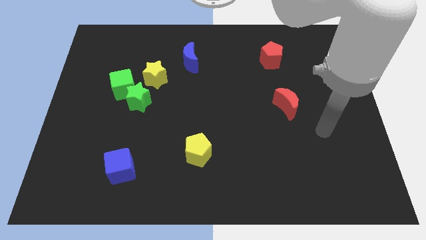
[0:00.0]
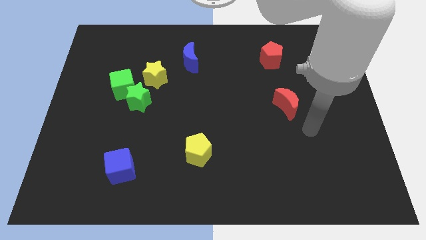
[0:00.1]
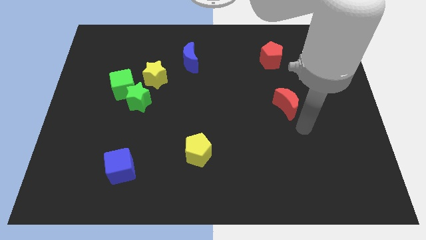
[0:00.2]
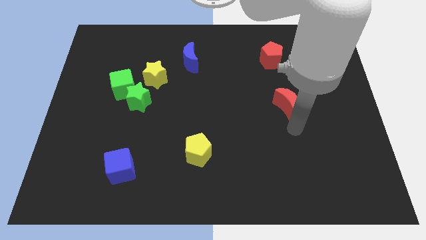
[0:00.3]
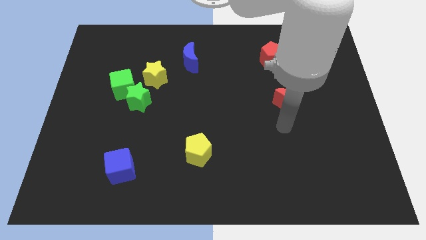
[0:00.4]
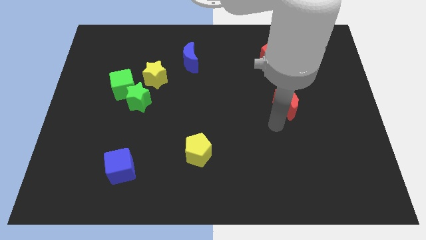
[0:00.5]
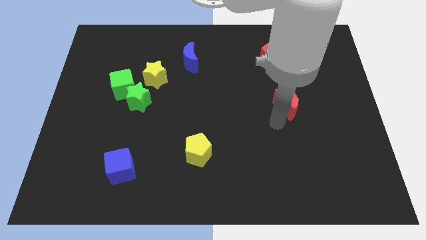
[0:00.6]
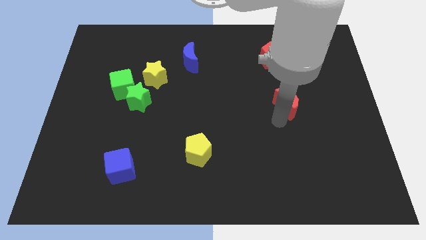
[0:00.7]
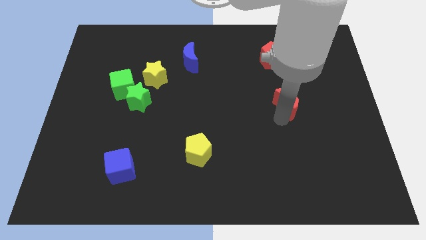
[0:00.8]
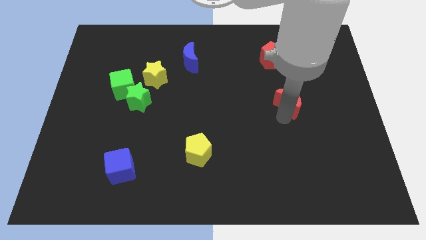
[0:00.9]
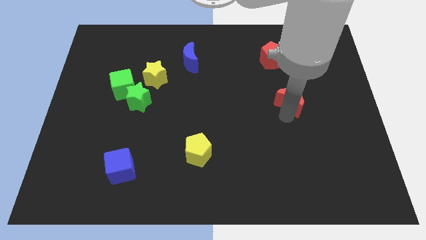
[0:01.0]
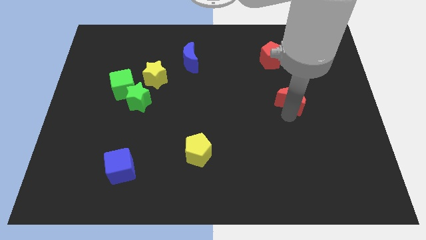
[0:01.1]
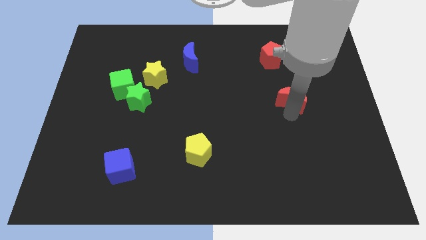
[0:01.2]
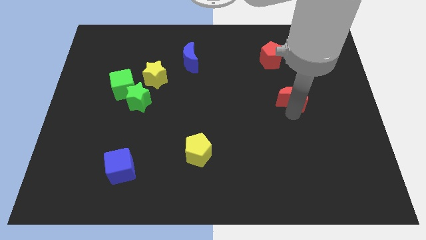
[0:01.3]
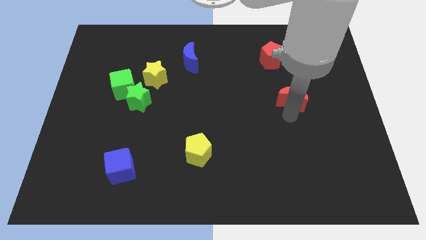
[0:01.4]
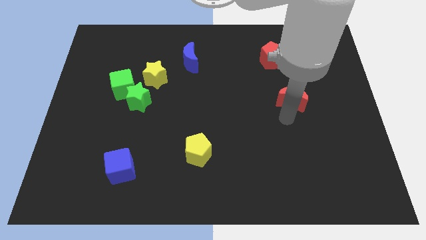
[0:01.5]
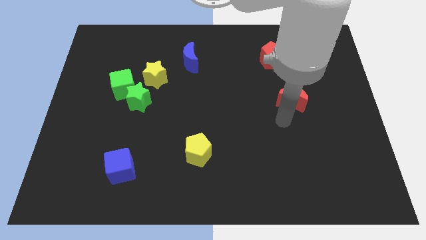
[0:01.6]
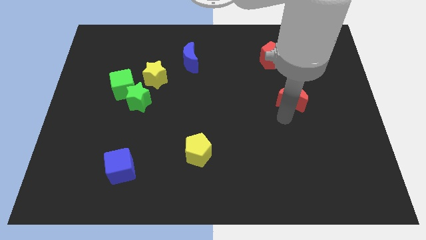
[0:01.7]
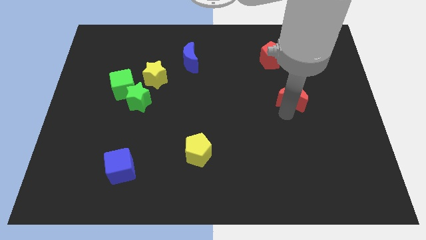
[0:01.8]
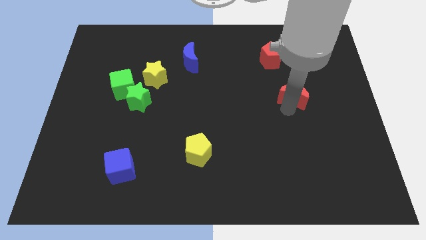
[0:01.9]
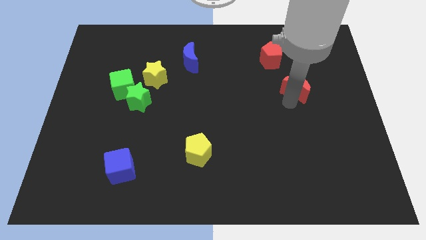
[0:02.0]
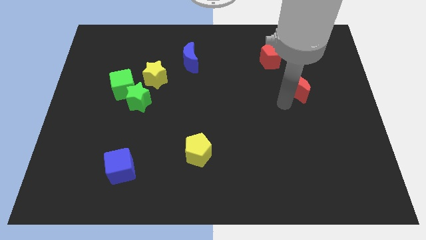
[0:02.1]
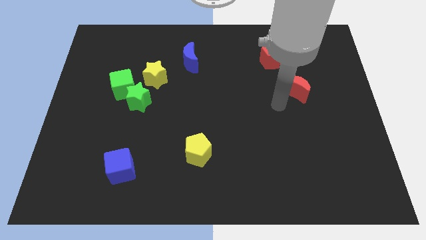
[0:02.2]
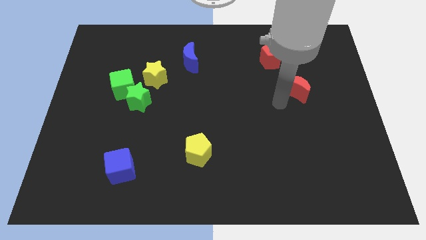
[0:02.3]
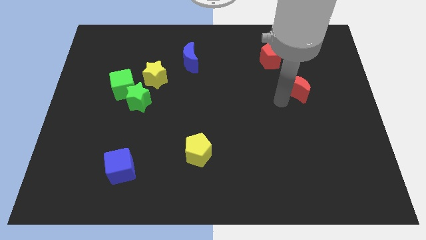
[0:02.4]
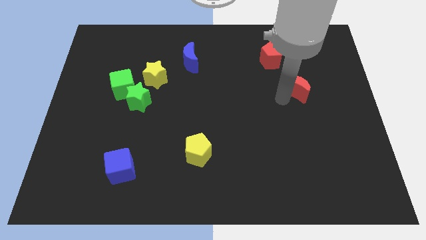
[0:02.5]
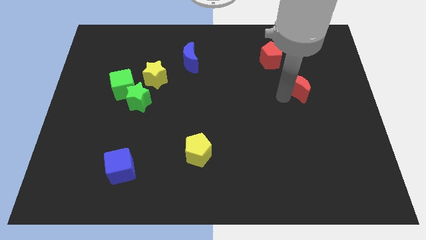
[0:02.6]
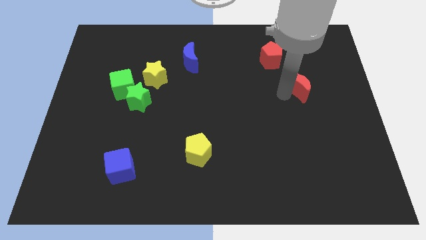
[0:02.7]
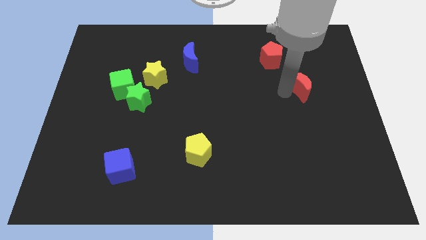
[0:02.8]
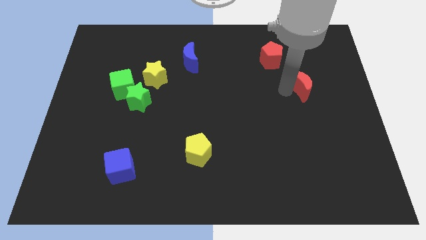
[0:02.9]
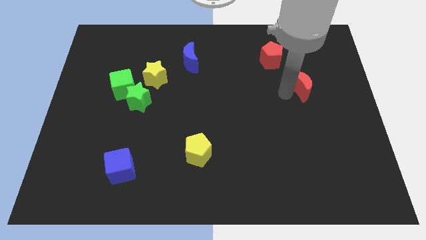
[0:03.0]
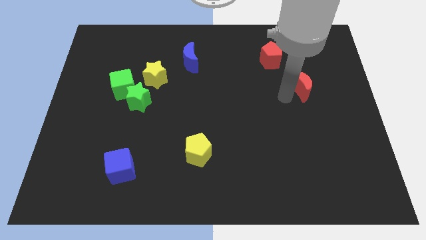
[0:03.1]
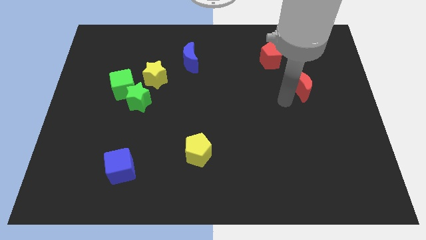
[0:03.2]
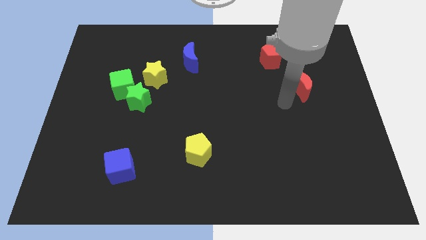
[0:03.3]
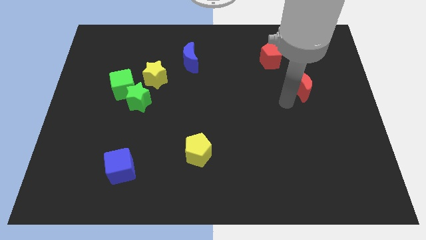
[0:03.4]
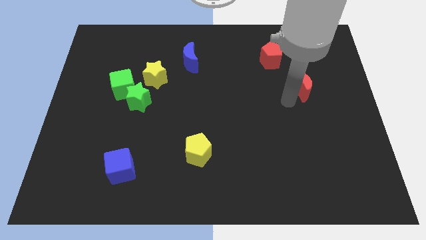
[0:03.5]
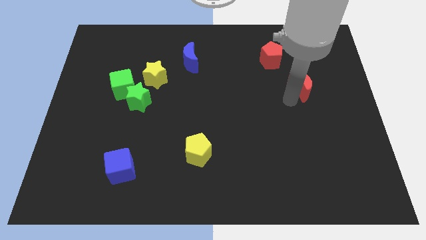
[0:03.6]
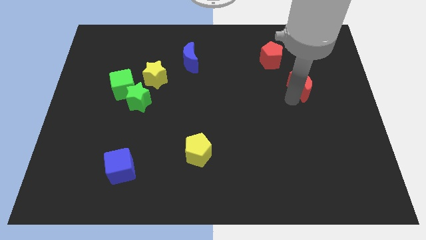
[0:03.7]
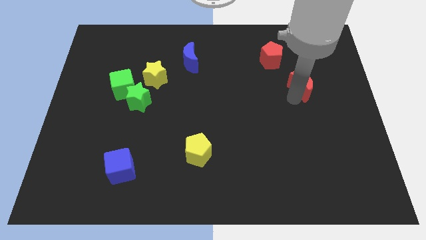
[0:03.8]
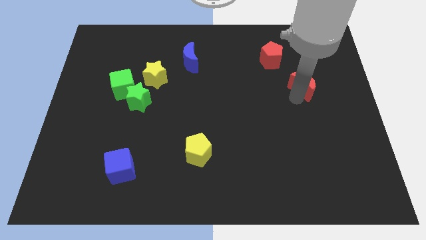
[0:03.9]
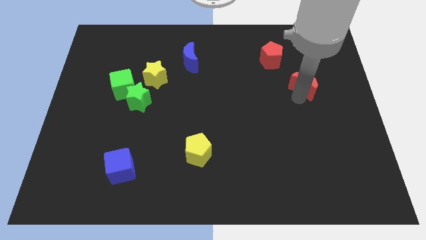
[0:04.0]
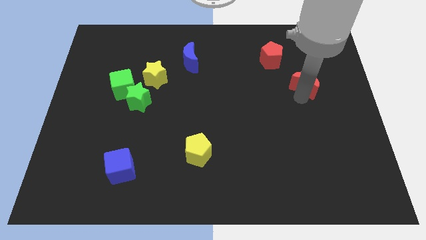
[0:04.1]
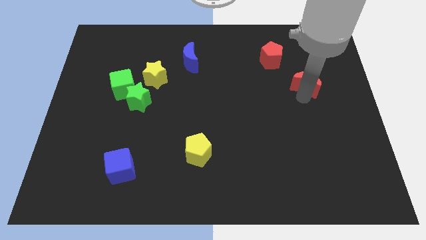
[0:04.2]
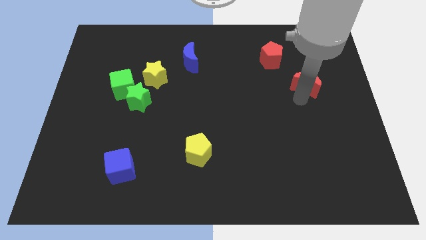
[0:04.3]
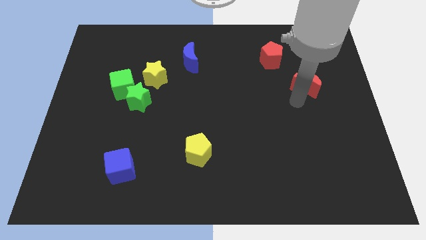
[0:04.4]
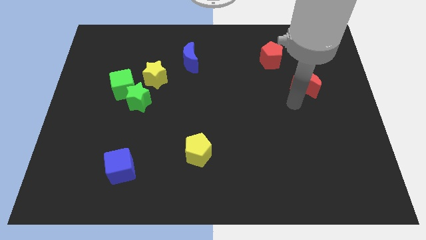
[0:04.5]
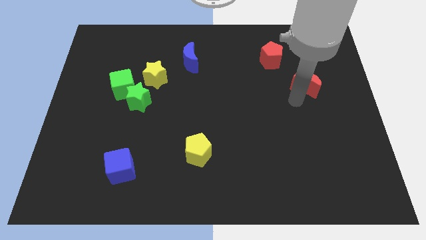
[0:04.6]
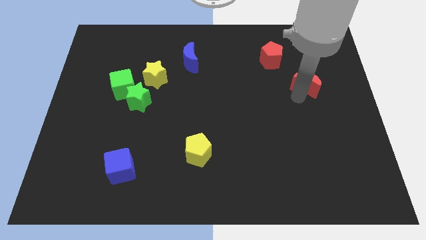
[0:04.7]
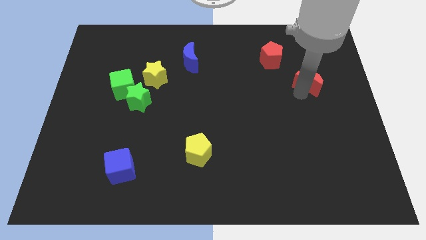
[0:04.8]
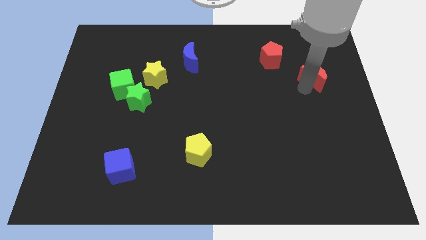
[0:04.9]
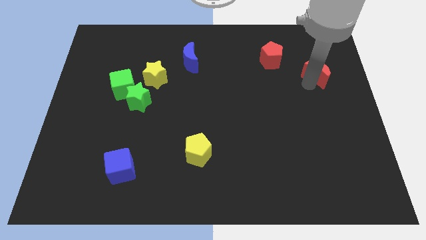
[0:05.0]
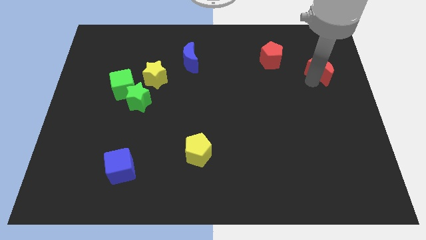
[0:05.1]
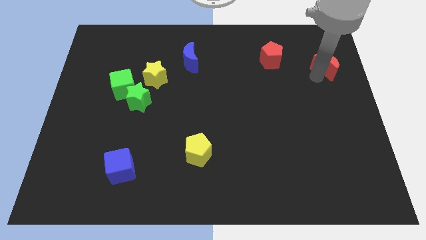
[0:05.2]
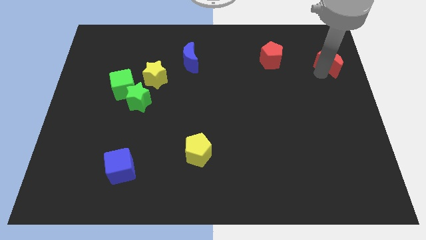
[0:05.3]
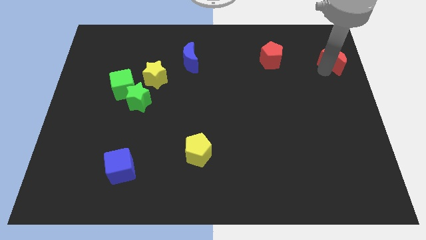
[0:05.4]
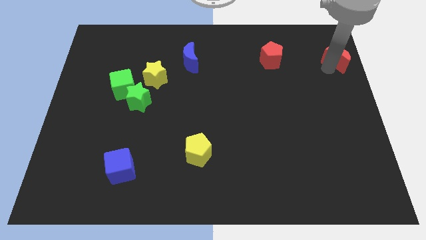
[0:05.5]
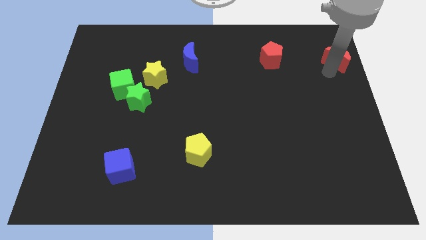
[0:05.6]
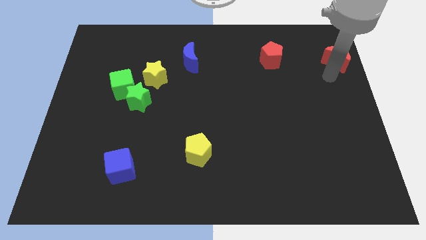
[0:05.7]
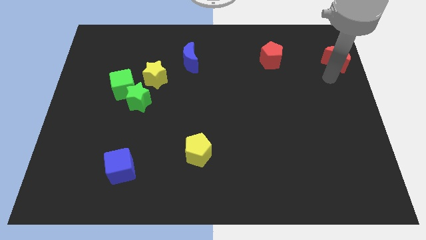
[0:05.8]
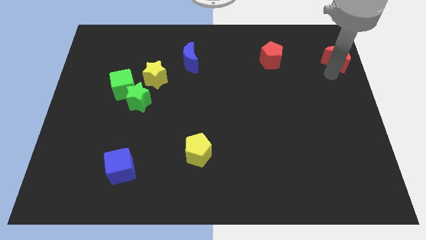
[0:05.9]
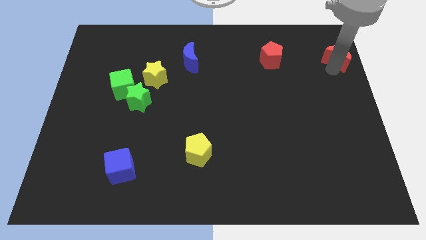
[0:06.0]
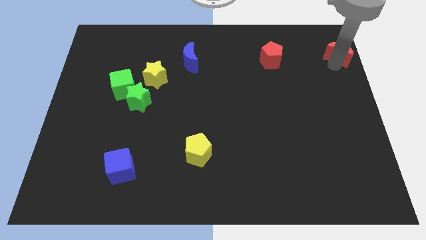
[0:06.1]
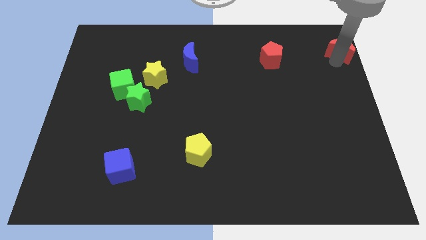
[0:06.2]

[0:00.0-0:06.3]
slide the red moon to the top right corner

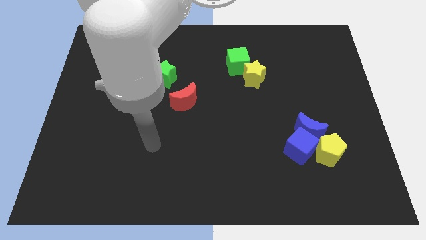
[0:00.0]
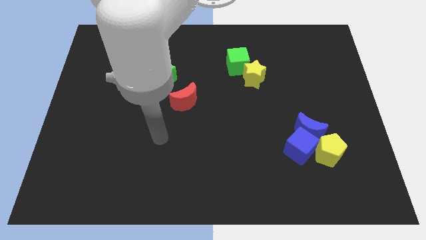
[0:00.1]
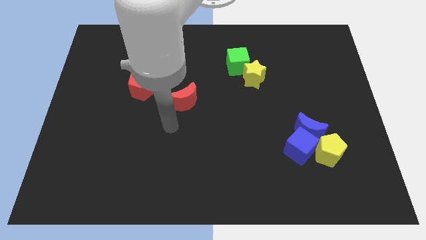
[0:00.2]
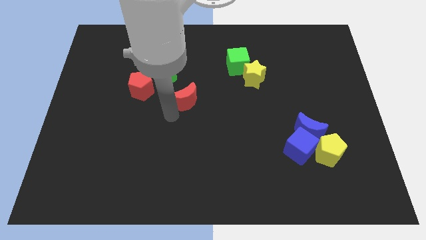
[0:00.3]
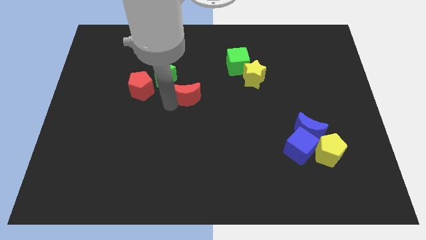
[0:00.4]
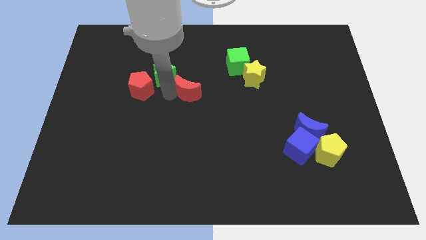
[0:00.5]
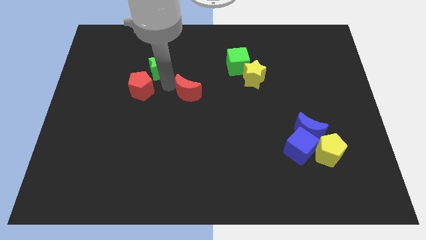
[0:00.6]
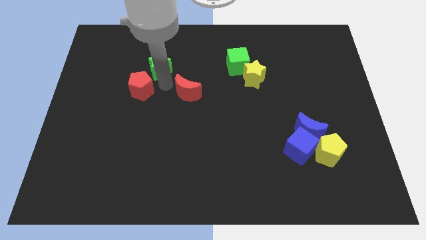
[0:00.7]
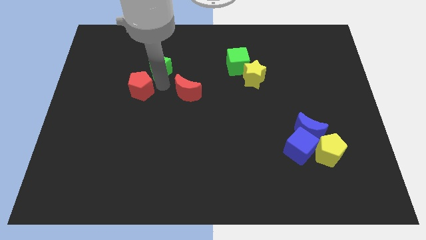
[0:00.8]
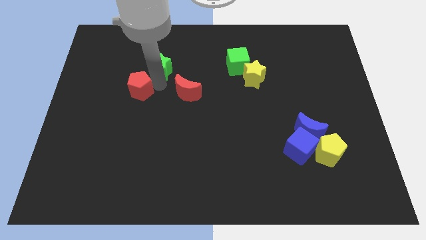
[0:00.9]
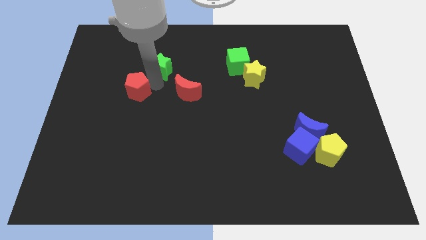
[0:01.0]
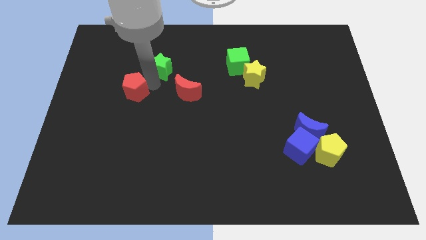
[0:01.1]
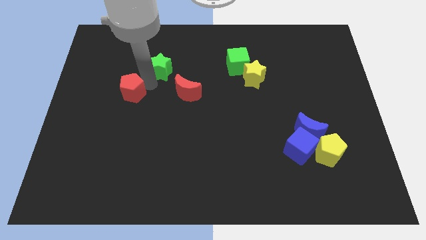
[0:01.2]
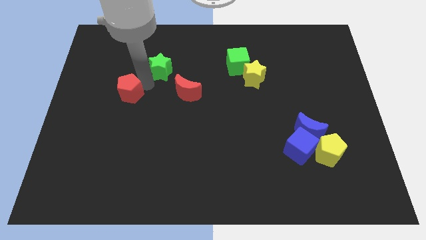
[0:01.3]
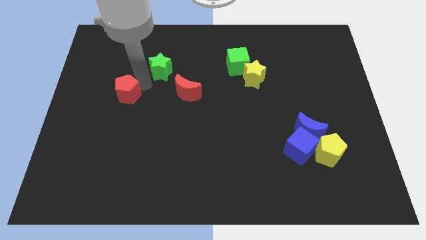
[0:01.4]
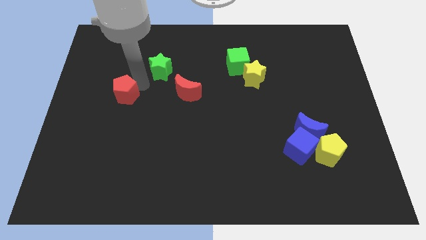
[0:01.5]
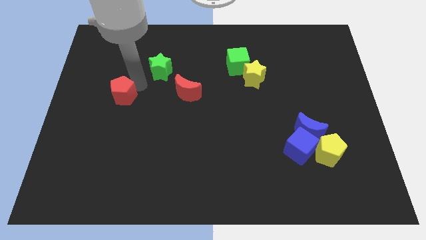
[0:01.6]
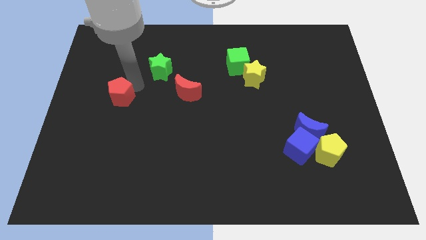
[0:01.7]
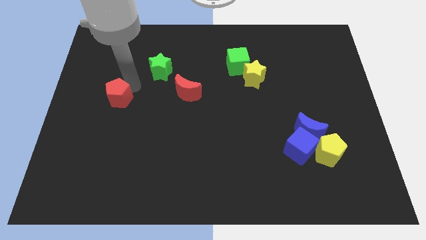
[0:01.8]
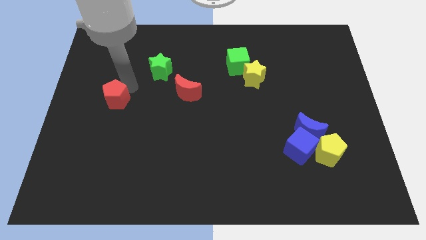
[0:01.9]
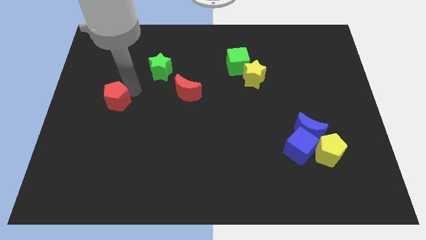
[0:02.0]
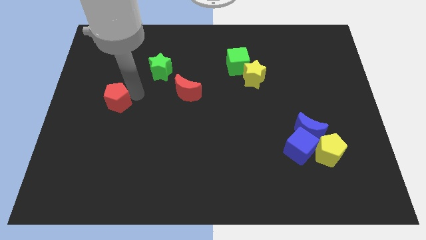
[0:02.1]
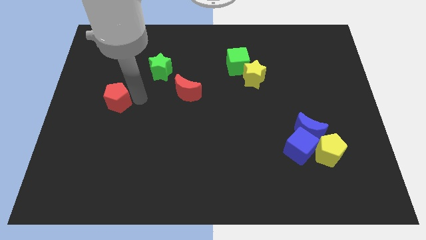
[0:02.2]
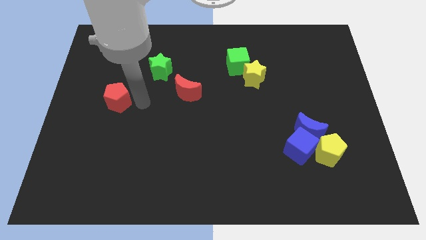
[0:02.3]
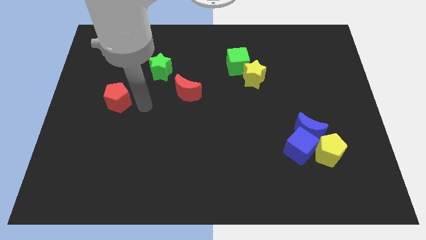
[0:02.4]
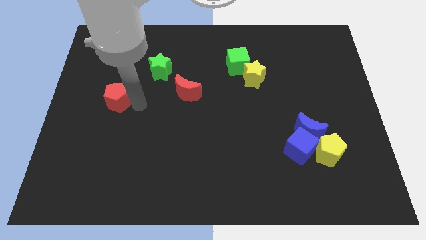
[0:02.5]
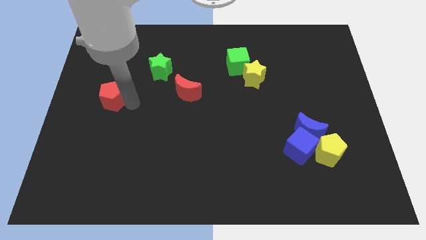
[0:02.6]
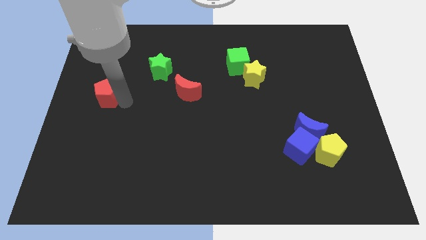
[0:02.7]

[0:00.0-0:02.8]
slide the red pentagon to the center left
